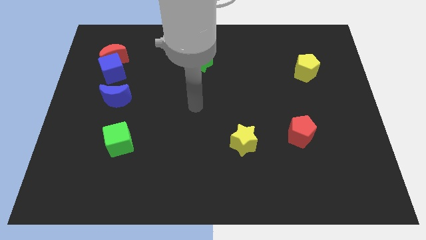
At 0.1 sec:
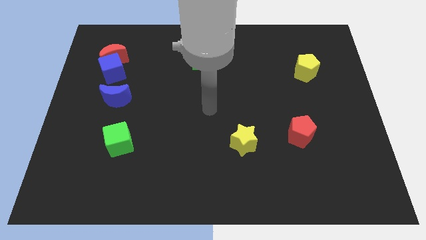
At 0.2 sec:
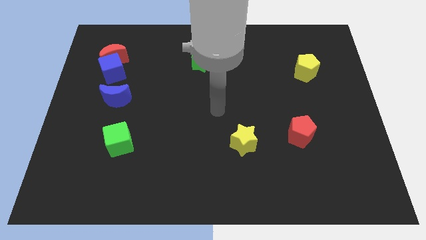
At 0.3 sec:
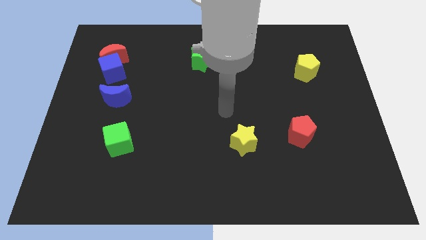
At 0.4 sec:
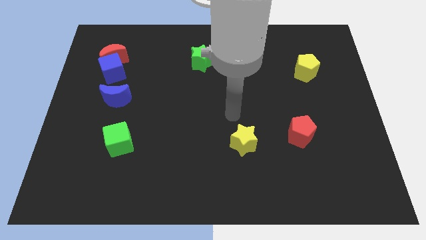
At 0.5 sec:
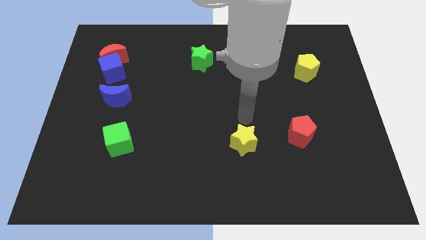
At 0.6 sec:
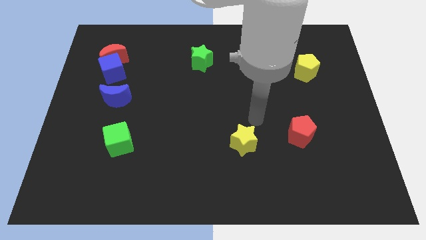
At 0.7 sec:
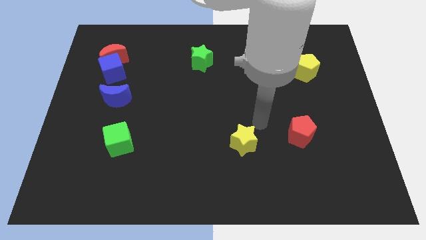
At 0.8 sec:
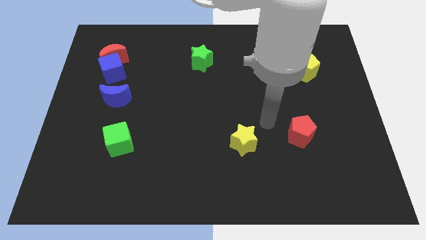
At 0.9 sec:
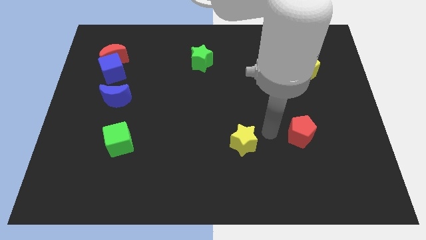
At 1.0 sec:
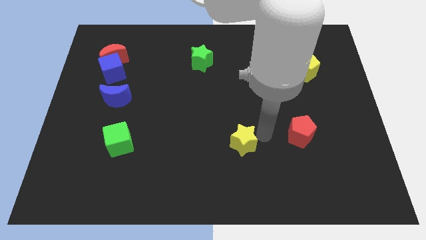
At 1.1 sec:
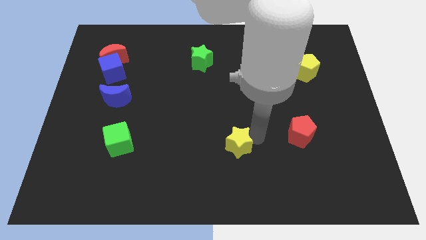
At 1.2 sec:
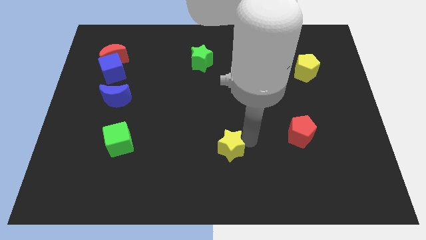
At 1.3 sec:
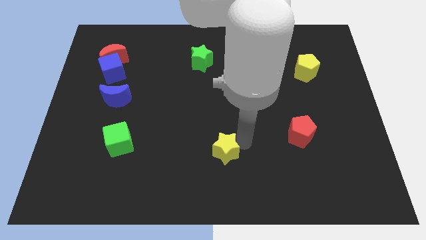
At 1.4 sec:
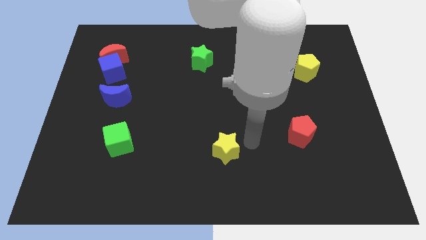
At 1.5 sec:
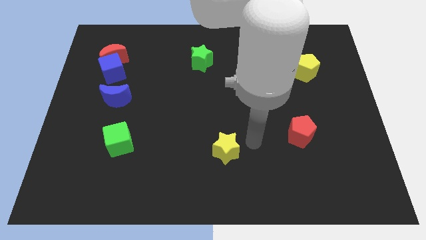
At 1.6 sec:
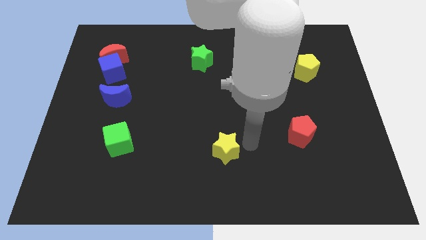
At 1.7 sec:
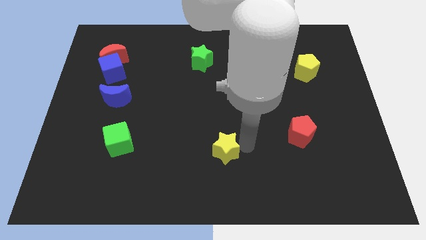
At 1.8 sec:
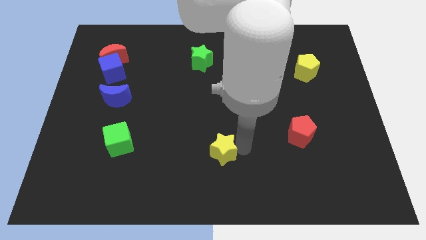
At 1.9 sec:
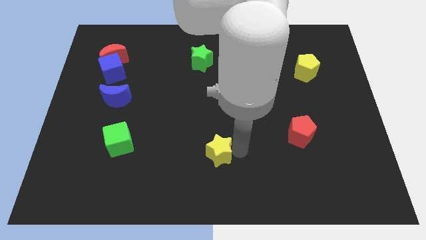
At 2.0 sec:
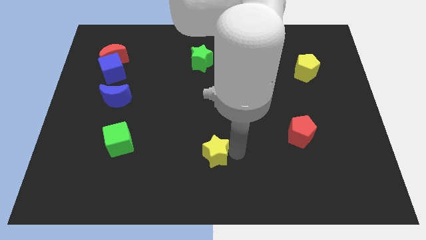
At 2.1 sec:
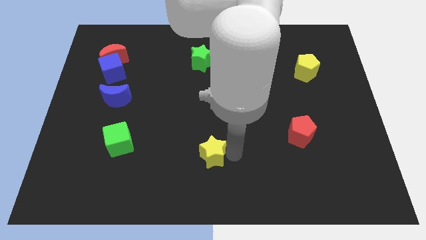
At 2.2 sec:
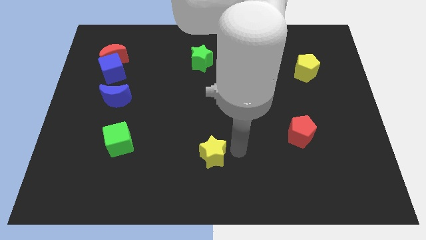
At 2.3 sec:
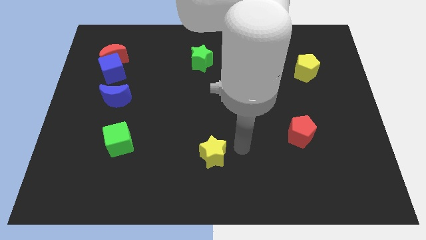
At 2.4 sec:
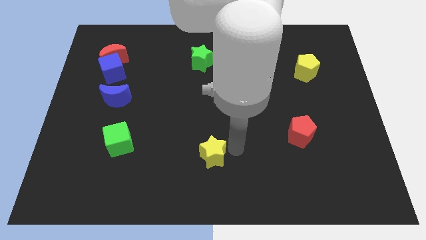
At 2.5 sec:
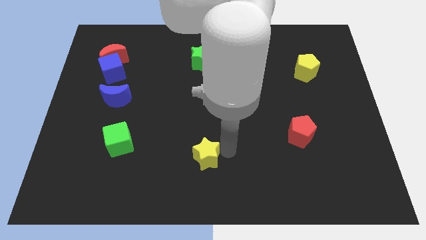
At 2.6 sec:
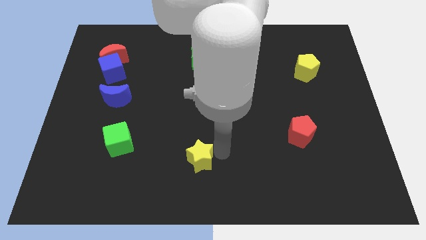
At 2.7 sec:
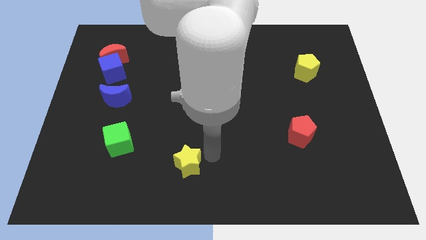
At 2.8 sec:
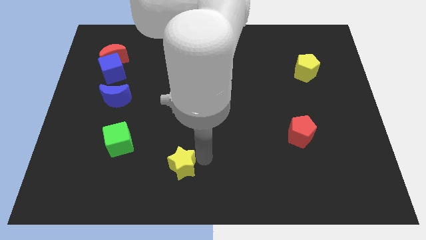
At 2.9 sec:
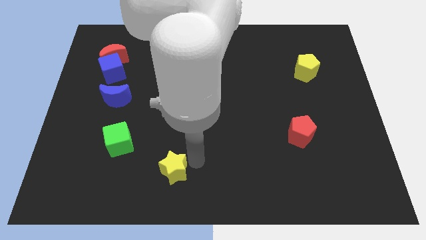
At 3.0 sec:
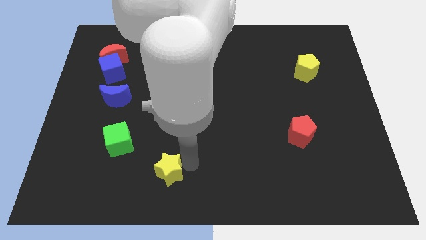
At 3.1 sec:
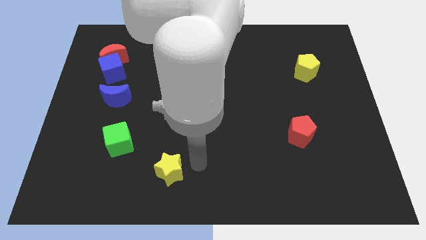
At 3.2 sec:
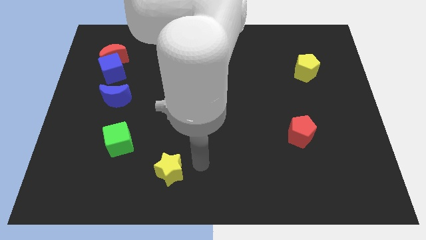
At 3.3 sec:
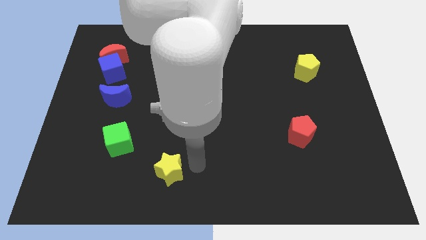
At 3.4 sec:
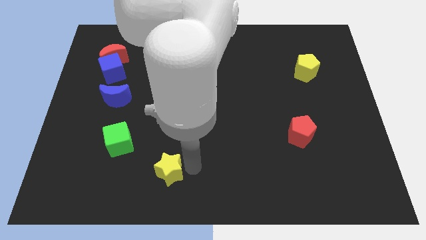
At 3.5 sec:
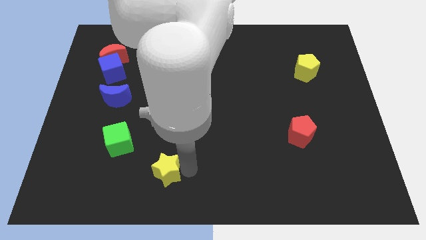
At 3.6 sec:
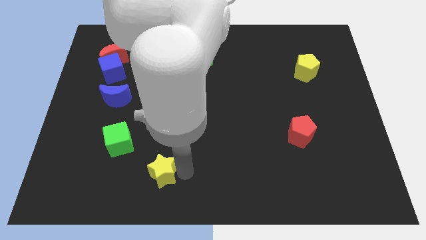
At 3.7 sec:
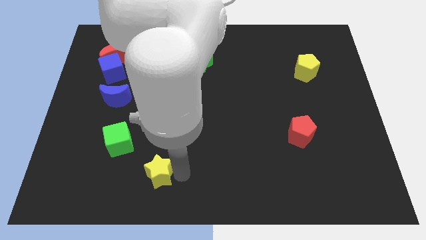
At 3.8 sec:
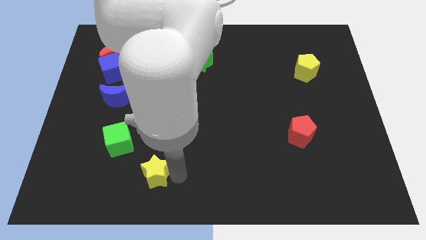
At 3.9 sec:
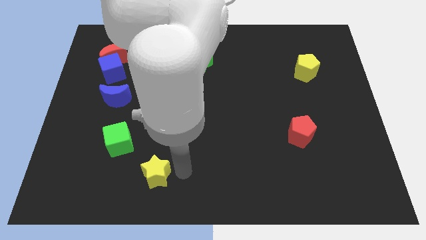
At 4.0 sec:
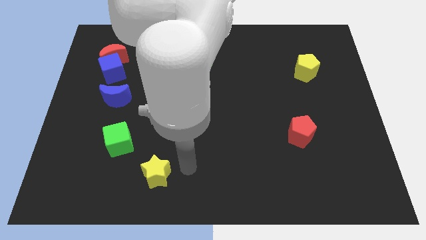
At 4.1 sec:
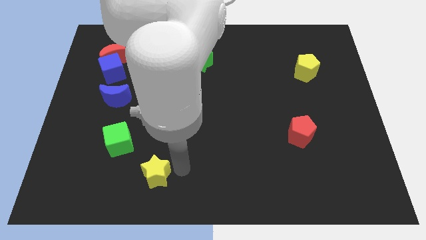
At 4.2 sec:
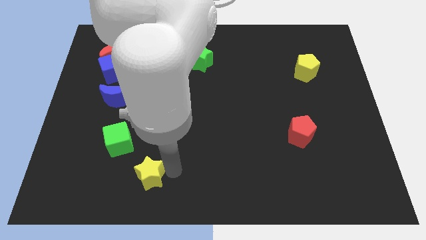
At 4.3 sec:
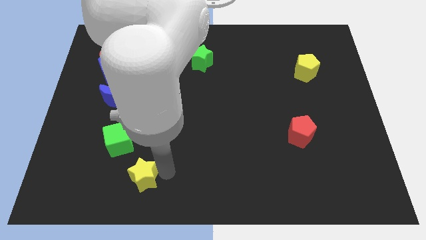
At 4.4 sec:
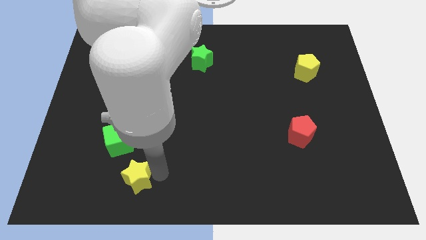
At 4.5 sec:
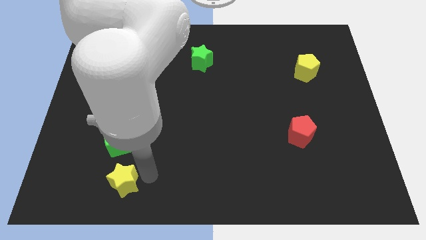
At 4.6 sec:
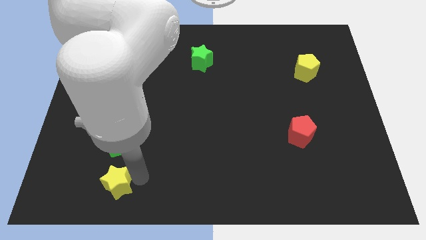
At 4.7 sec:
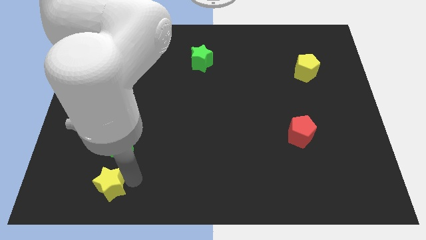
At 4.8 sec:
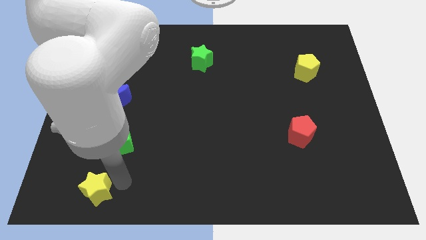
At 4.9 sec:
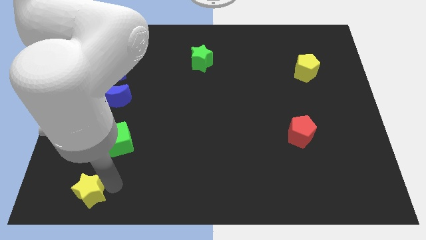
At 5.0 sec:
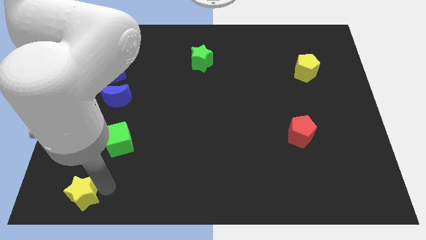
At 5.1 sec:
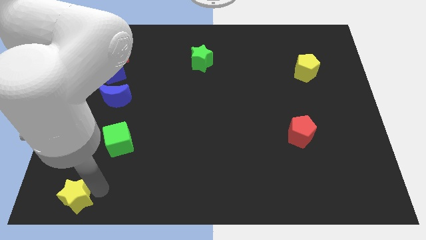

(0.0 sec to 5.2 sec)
push the yellow star to the bottom left of the board
